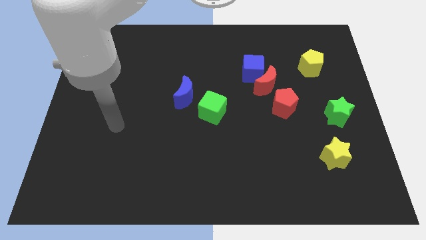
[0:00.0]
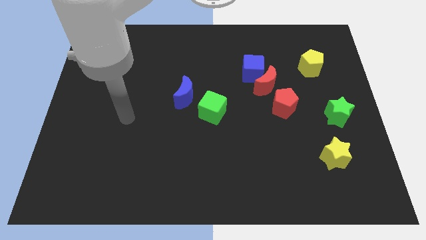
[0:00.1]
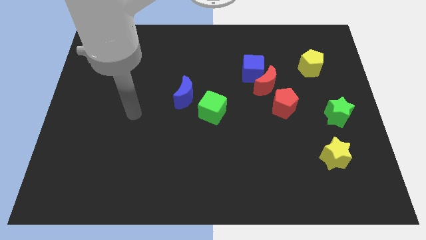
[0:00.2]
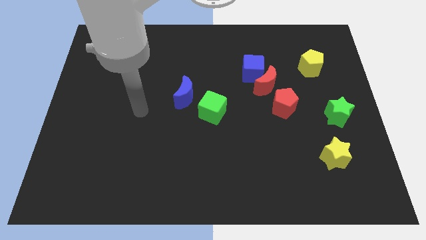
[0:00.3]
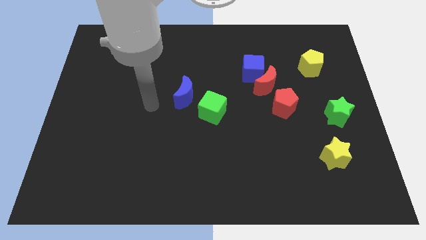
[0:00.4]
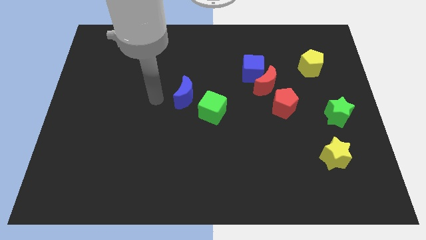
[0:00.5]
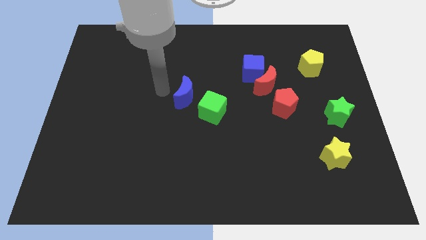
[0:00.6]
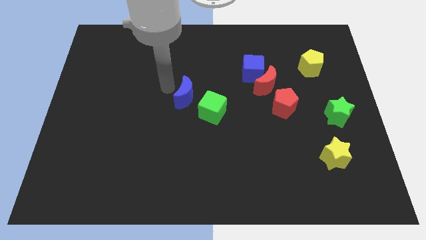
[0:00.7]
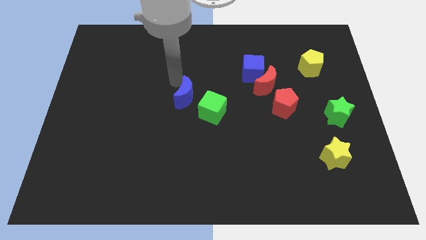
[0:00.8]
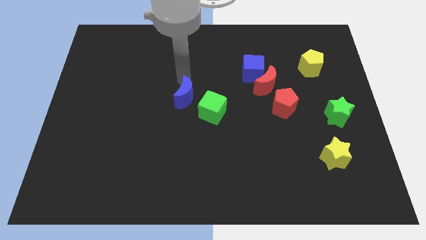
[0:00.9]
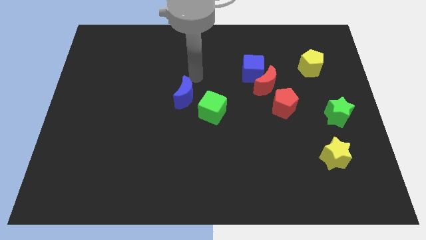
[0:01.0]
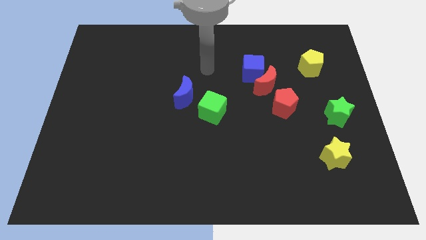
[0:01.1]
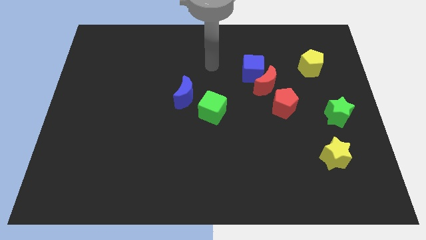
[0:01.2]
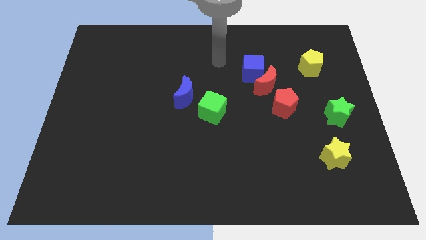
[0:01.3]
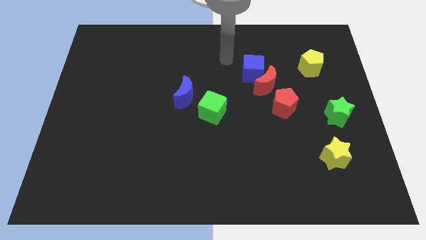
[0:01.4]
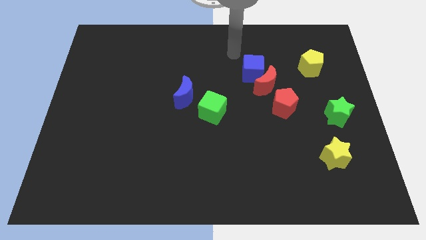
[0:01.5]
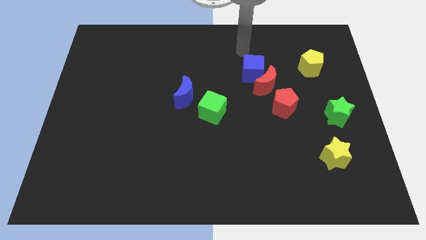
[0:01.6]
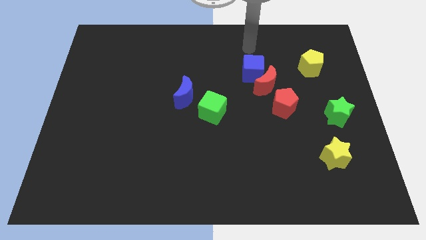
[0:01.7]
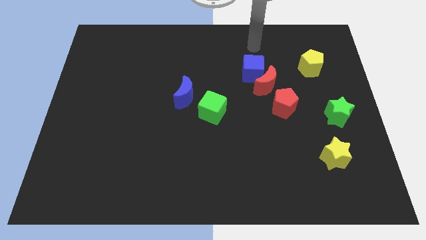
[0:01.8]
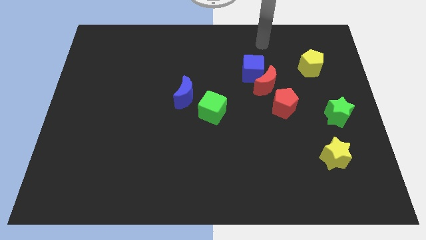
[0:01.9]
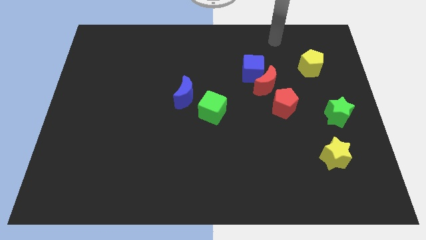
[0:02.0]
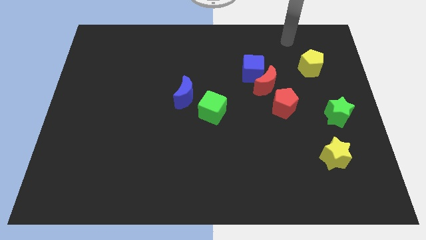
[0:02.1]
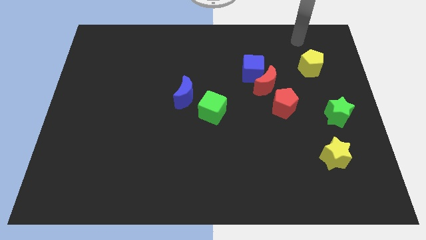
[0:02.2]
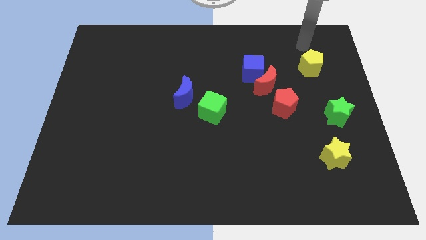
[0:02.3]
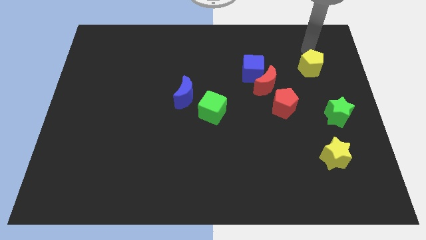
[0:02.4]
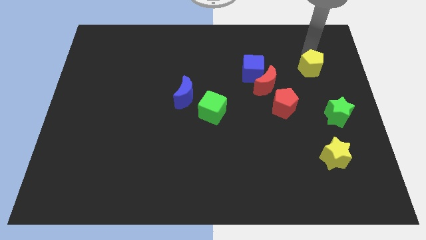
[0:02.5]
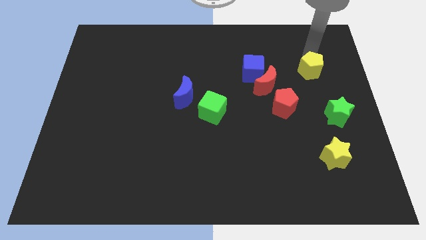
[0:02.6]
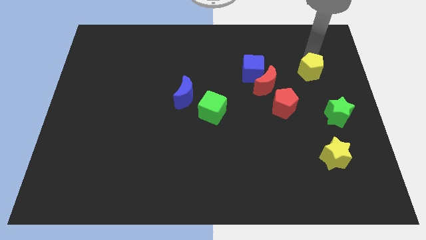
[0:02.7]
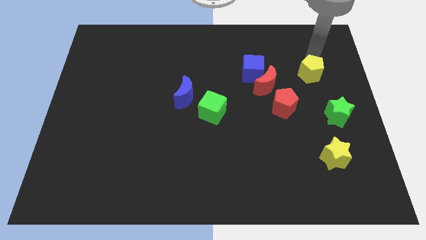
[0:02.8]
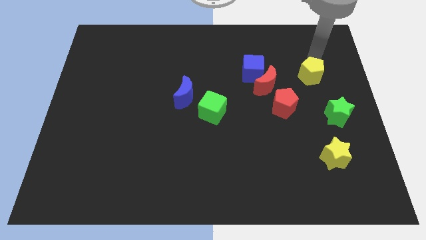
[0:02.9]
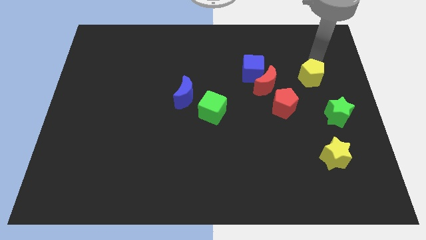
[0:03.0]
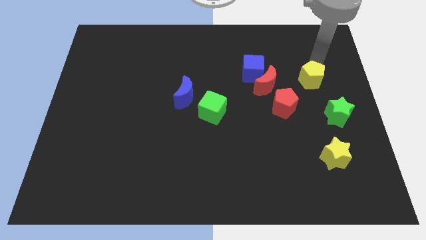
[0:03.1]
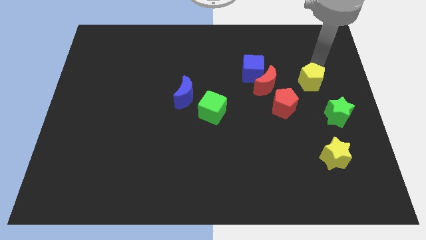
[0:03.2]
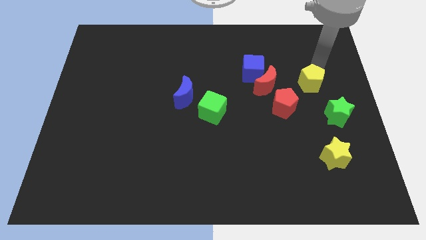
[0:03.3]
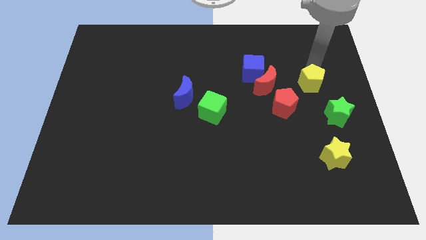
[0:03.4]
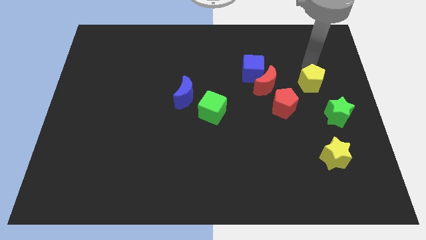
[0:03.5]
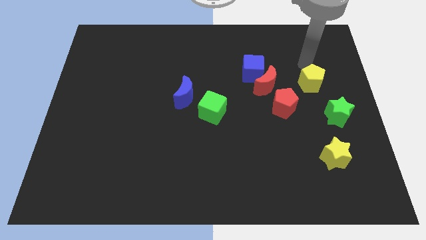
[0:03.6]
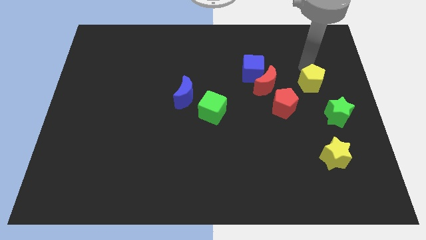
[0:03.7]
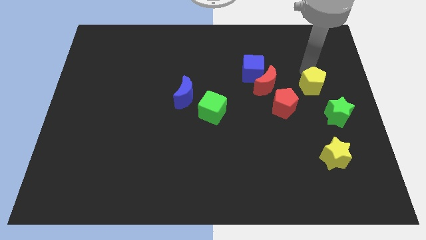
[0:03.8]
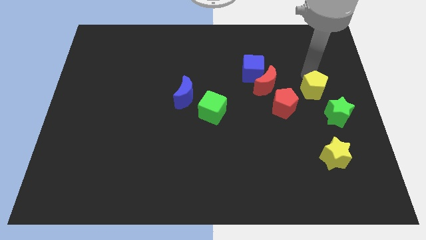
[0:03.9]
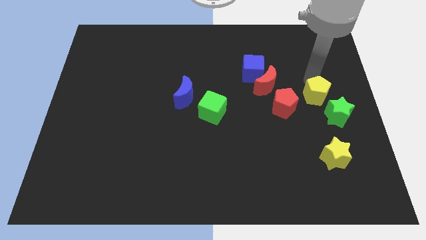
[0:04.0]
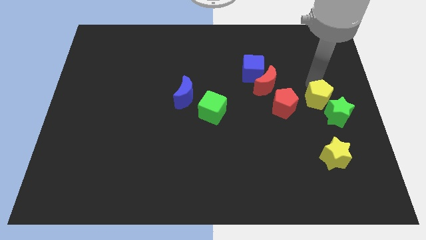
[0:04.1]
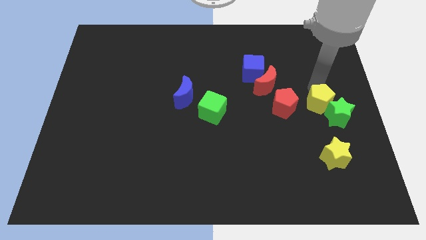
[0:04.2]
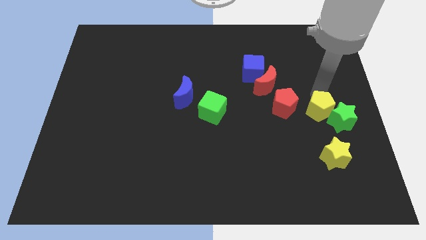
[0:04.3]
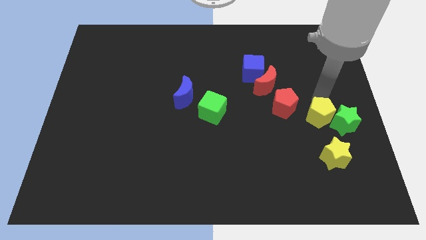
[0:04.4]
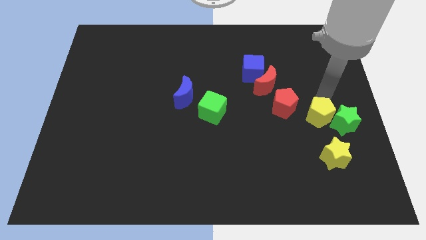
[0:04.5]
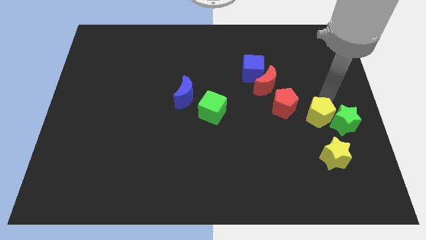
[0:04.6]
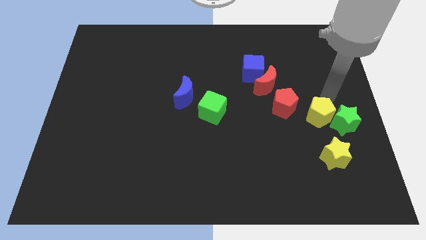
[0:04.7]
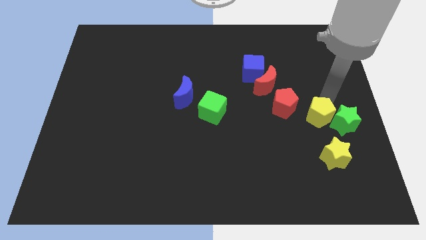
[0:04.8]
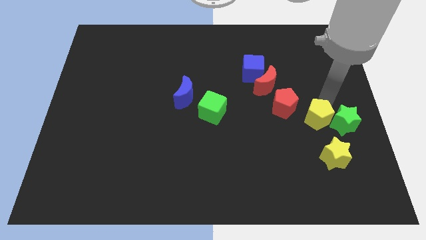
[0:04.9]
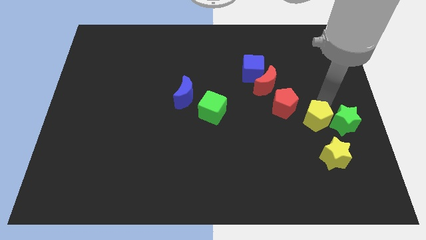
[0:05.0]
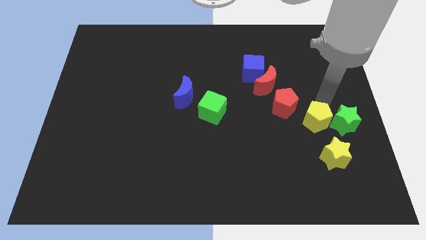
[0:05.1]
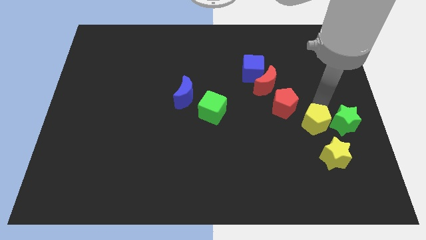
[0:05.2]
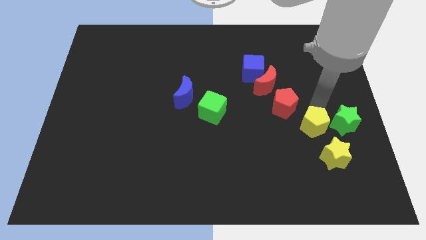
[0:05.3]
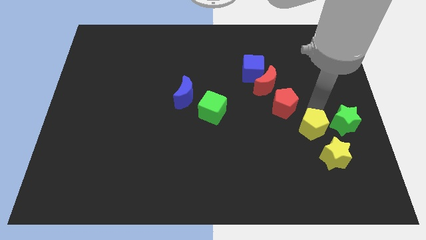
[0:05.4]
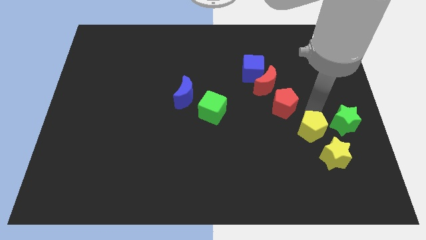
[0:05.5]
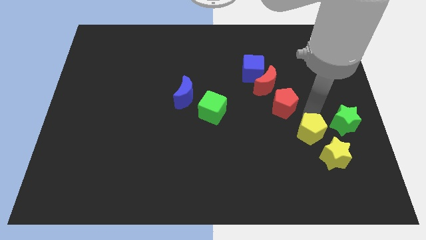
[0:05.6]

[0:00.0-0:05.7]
slide the yellow pentagon downwards

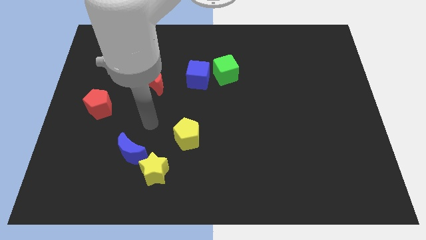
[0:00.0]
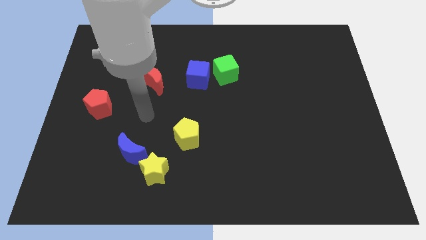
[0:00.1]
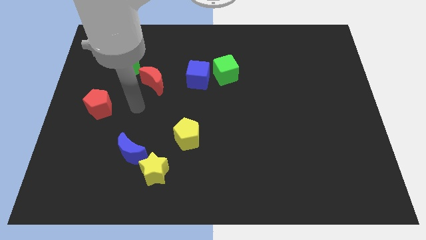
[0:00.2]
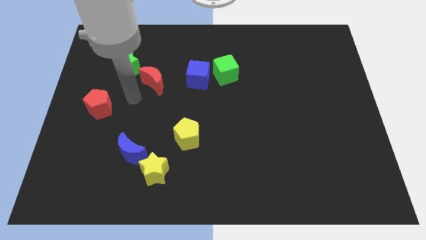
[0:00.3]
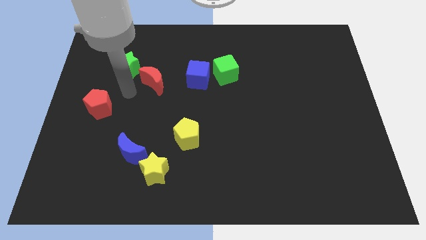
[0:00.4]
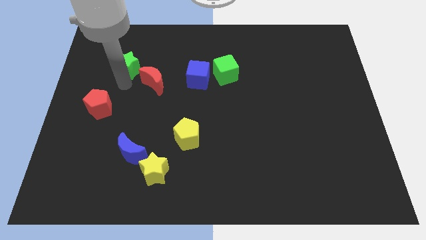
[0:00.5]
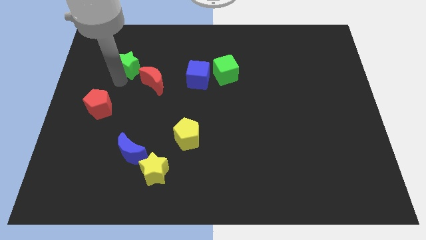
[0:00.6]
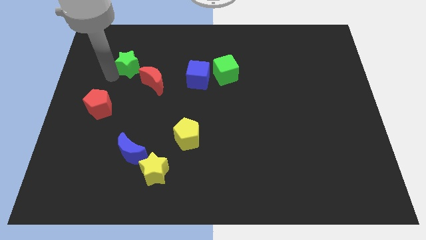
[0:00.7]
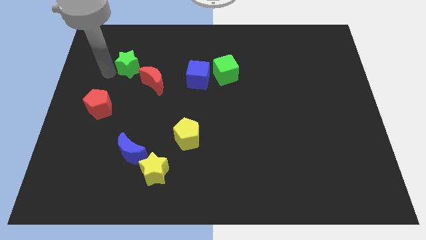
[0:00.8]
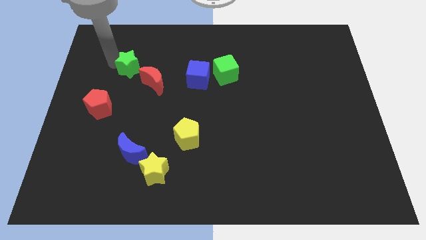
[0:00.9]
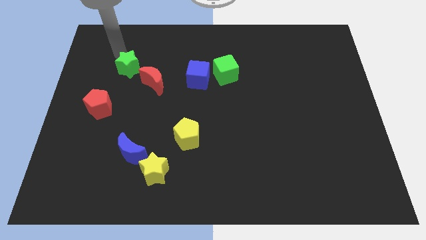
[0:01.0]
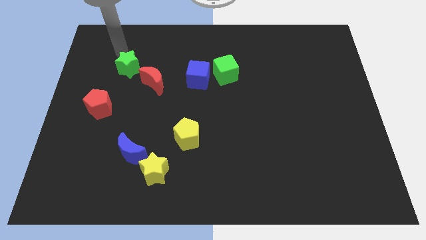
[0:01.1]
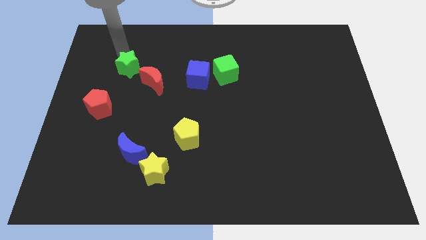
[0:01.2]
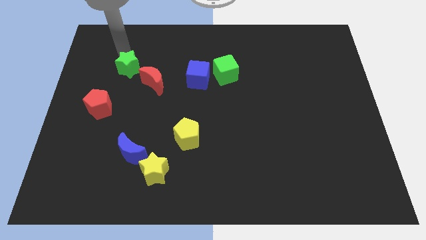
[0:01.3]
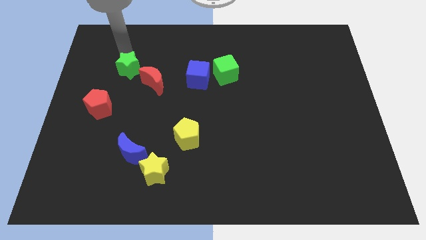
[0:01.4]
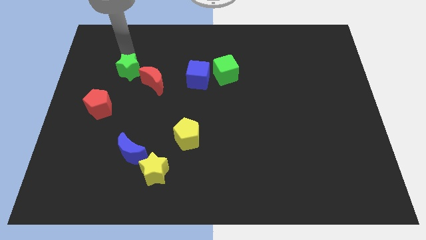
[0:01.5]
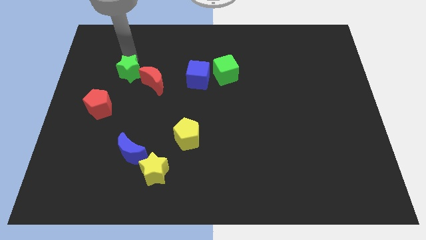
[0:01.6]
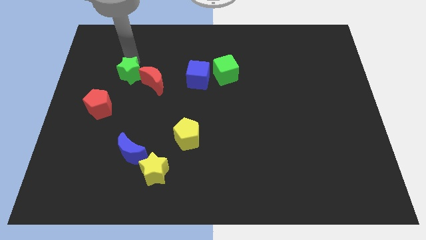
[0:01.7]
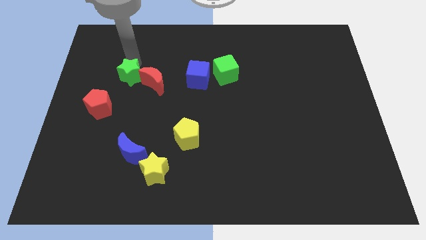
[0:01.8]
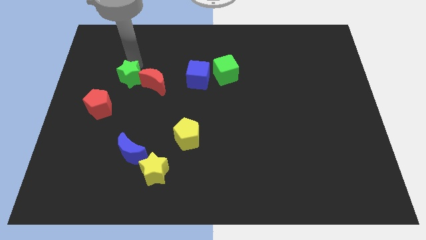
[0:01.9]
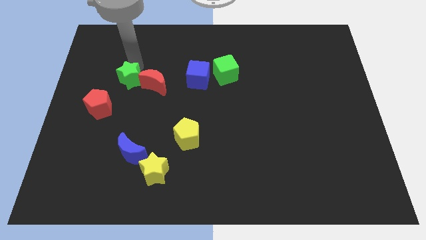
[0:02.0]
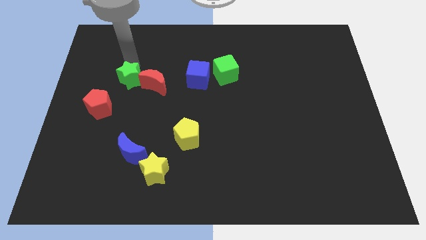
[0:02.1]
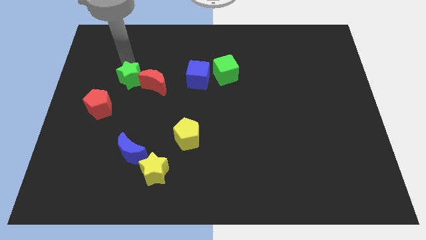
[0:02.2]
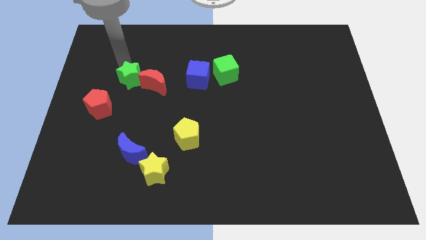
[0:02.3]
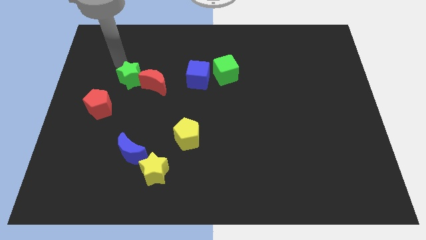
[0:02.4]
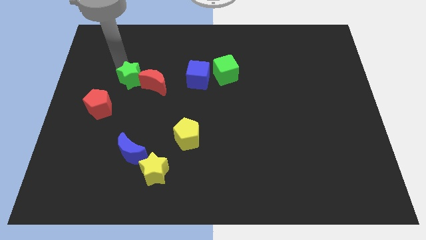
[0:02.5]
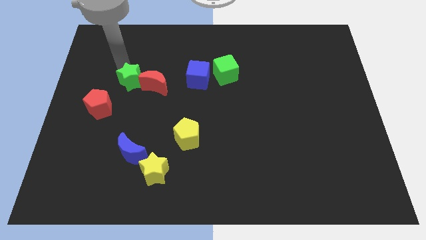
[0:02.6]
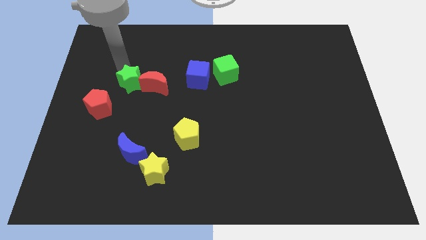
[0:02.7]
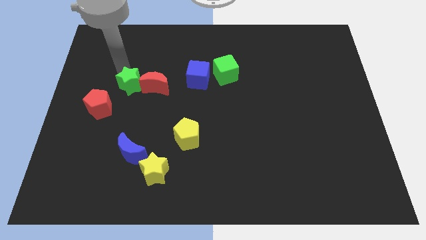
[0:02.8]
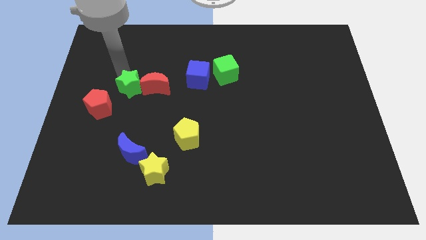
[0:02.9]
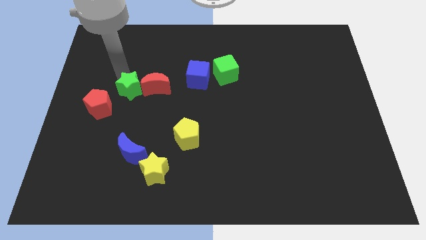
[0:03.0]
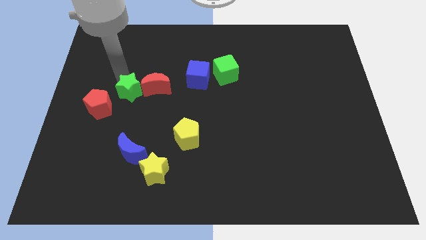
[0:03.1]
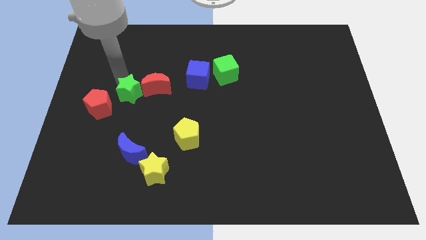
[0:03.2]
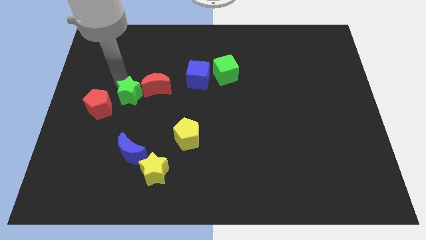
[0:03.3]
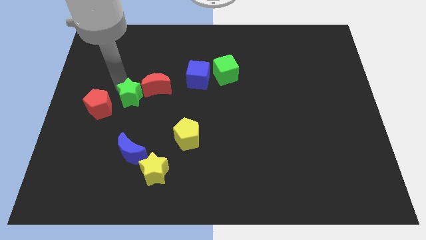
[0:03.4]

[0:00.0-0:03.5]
slightly move the green star diagonally down and to the right
